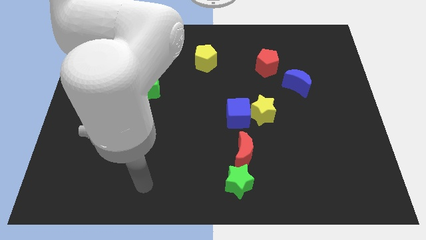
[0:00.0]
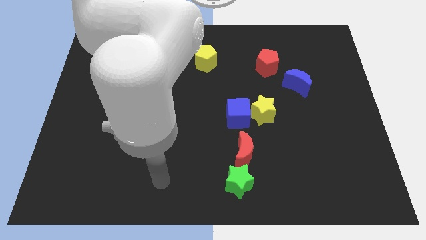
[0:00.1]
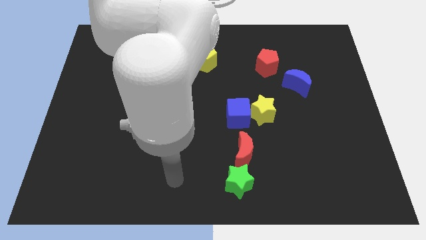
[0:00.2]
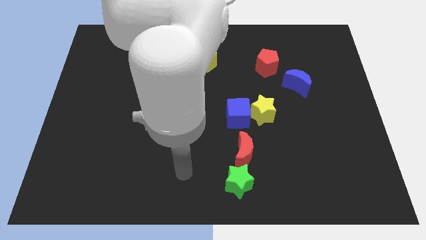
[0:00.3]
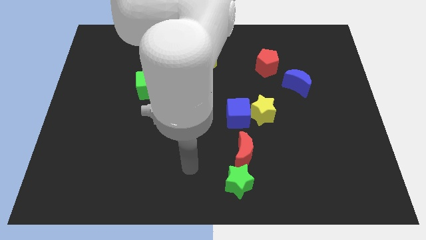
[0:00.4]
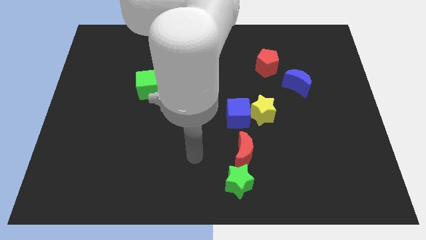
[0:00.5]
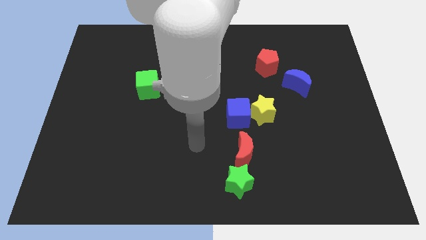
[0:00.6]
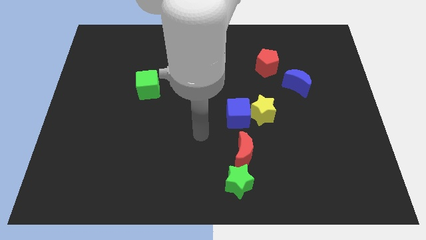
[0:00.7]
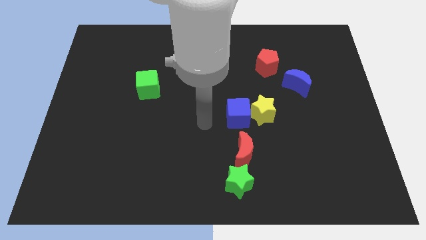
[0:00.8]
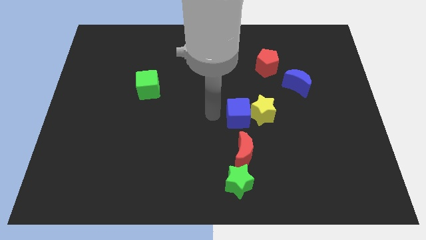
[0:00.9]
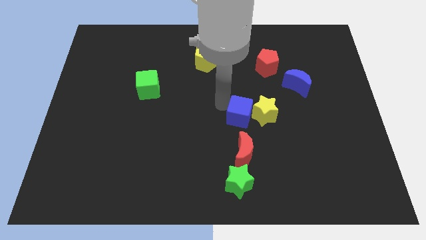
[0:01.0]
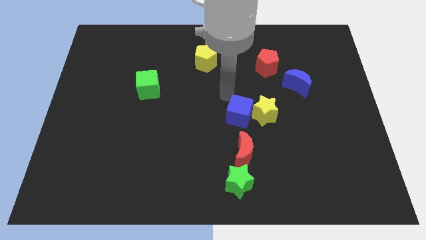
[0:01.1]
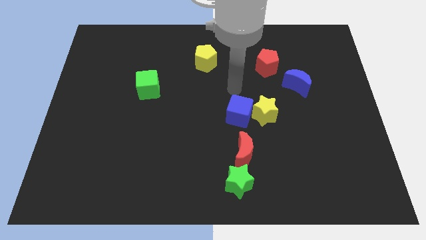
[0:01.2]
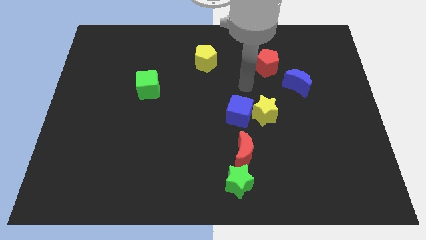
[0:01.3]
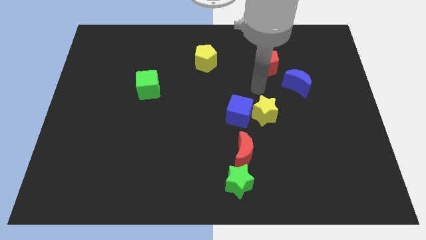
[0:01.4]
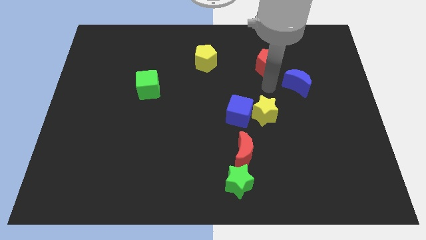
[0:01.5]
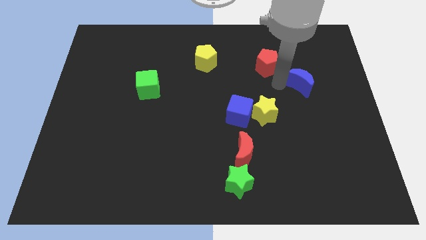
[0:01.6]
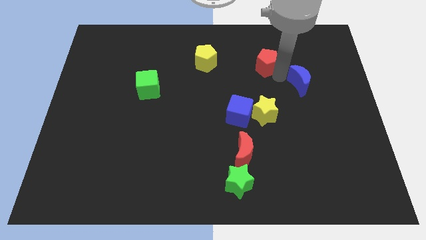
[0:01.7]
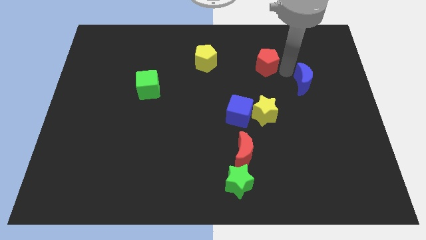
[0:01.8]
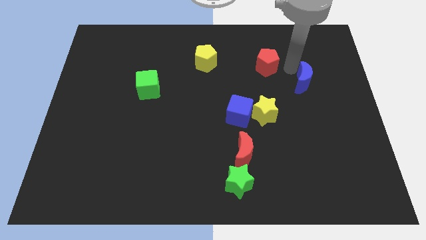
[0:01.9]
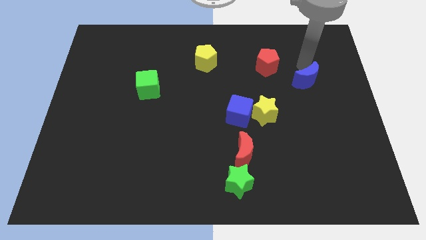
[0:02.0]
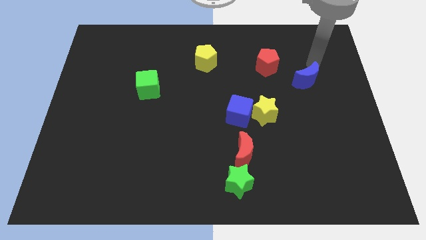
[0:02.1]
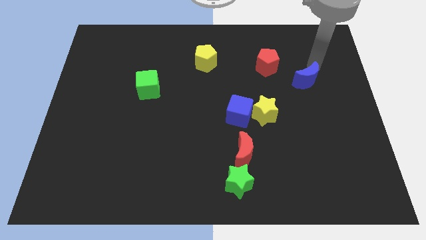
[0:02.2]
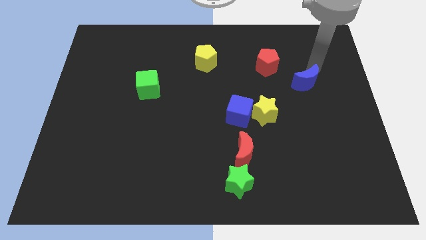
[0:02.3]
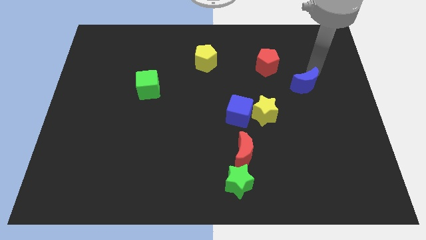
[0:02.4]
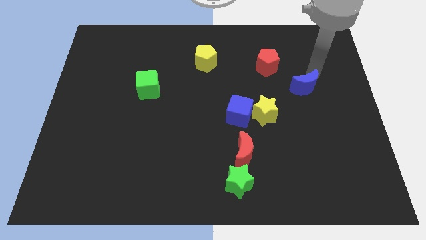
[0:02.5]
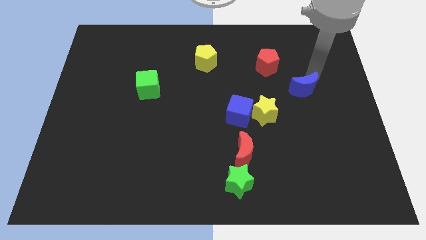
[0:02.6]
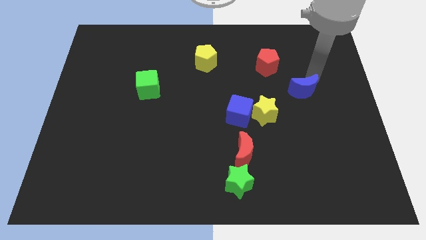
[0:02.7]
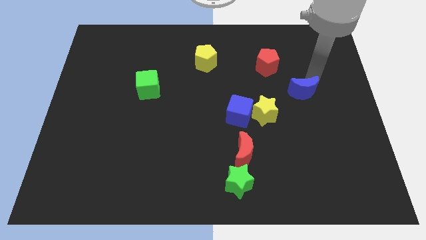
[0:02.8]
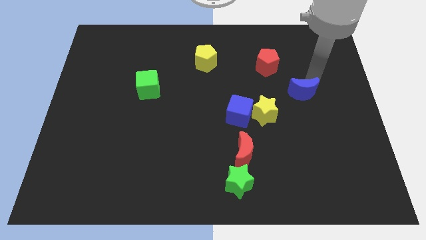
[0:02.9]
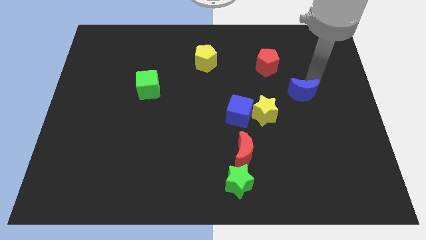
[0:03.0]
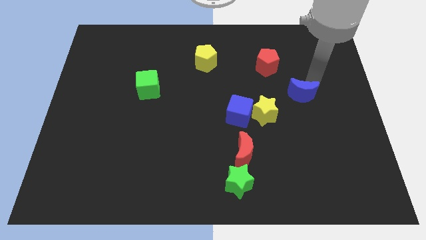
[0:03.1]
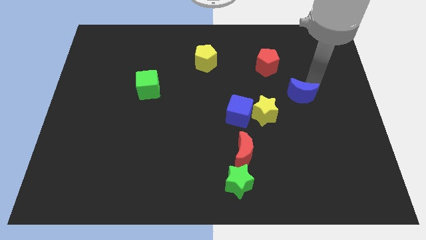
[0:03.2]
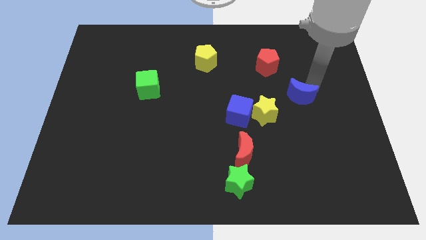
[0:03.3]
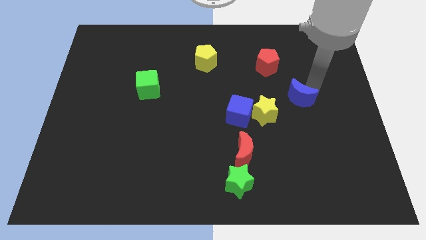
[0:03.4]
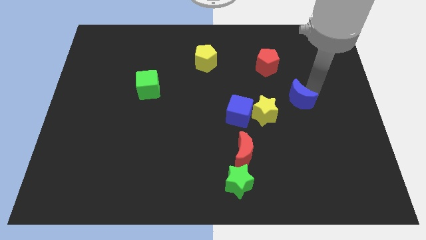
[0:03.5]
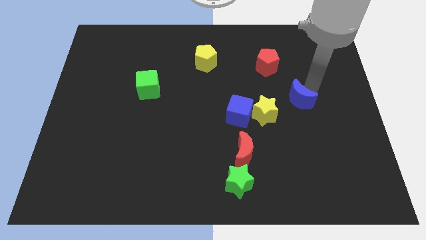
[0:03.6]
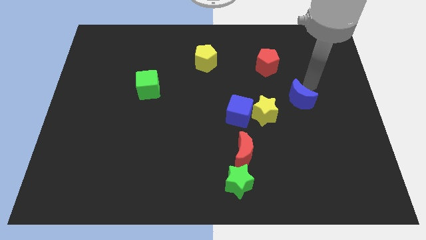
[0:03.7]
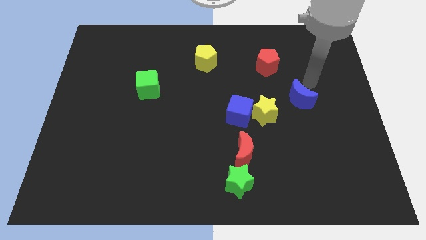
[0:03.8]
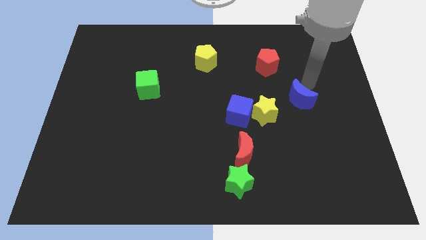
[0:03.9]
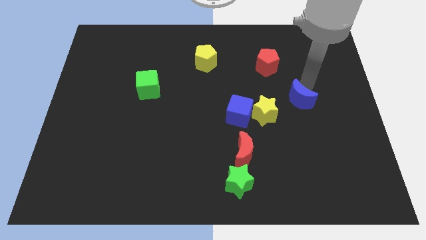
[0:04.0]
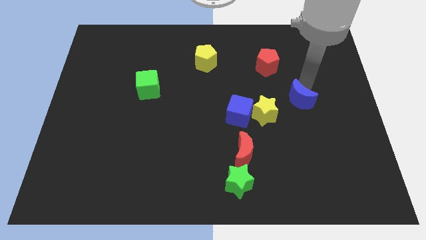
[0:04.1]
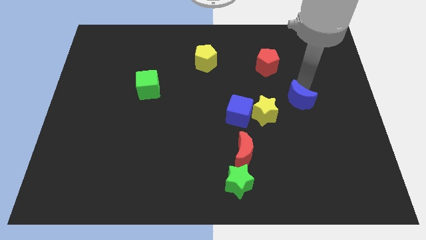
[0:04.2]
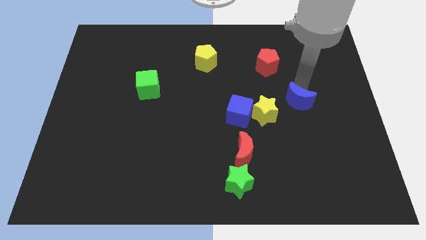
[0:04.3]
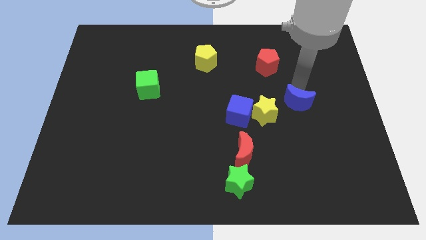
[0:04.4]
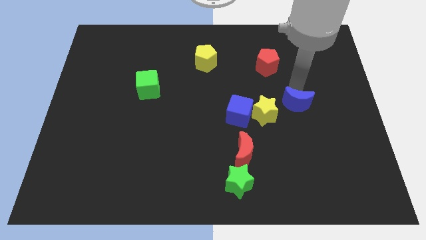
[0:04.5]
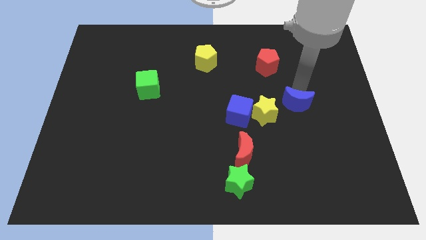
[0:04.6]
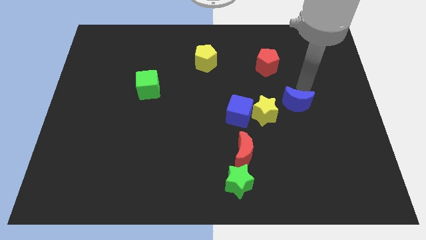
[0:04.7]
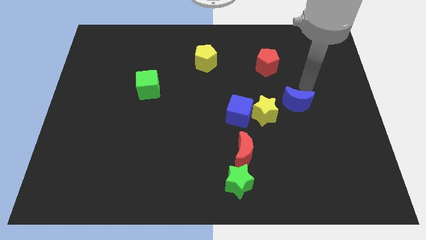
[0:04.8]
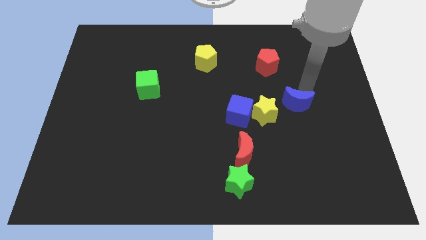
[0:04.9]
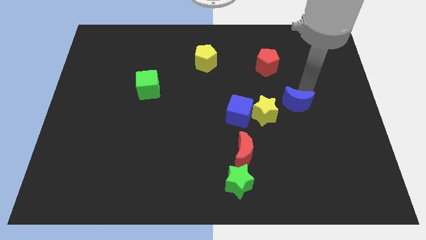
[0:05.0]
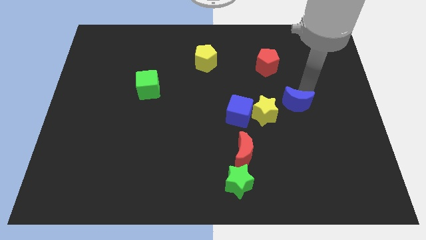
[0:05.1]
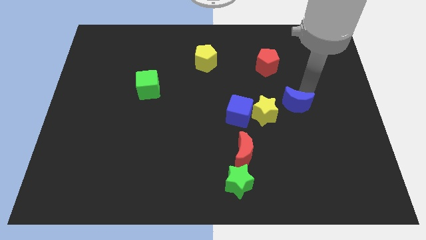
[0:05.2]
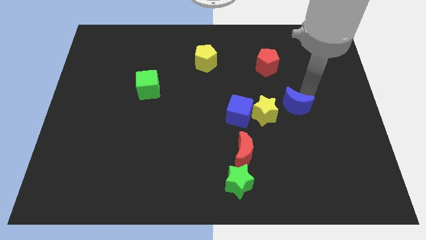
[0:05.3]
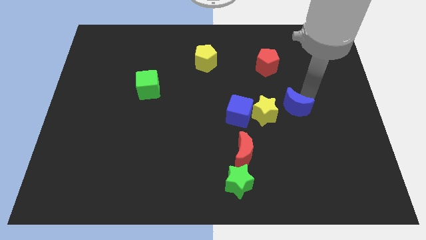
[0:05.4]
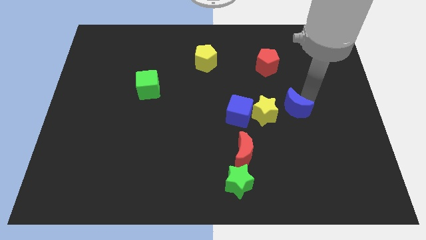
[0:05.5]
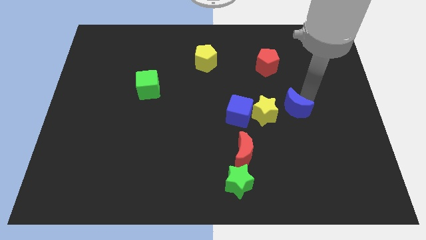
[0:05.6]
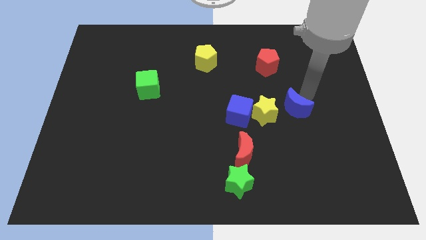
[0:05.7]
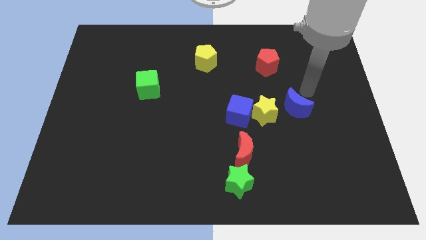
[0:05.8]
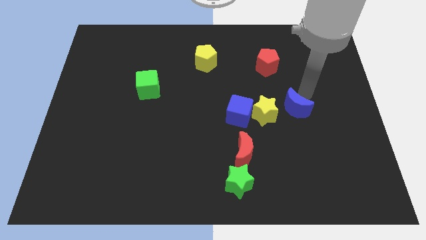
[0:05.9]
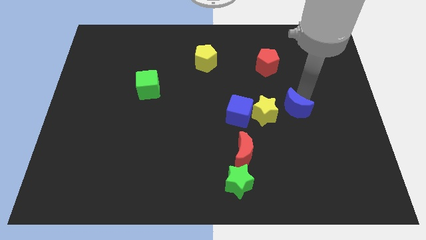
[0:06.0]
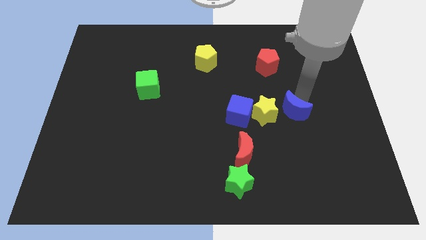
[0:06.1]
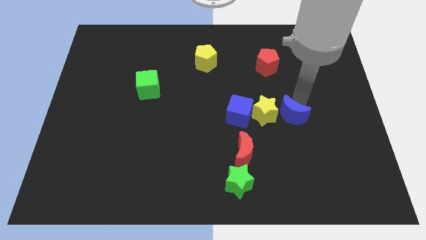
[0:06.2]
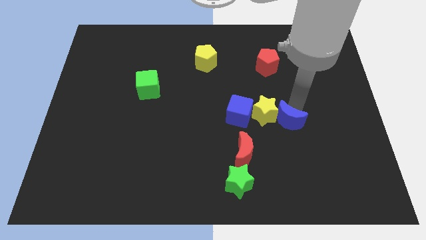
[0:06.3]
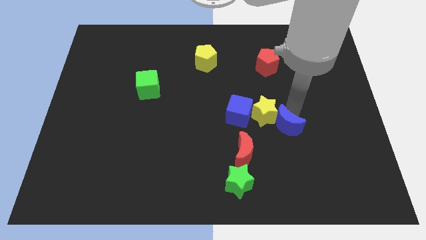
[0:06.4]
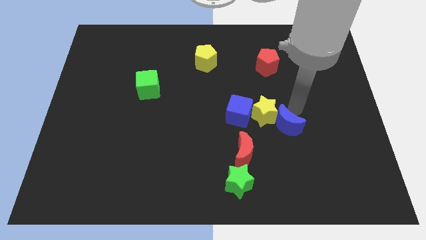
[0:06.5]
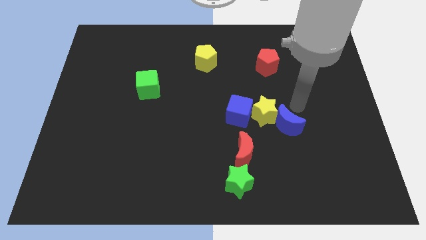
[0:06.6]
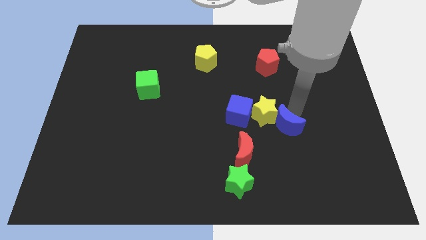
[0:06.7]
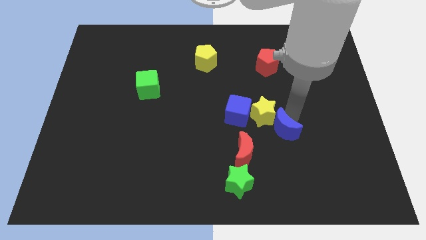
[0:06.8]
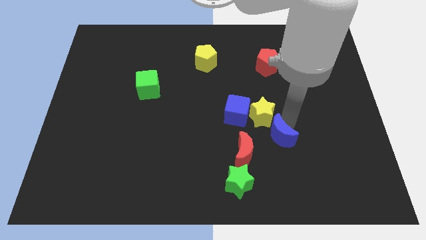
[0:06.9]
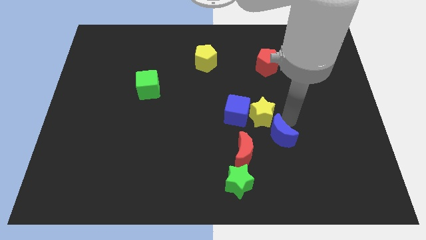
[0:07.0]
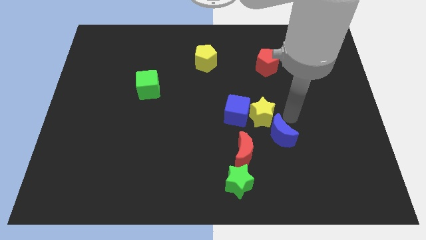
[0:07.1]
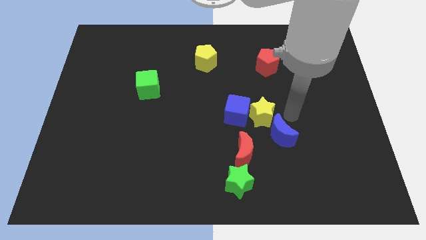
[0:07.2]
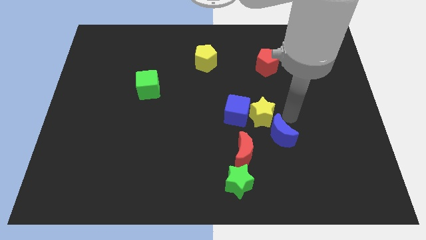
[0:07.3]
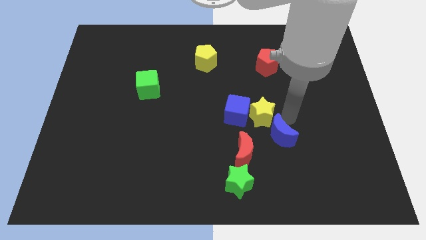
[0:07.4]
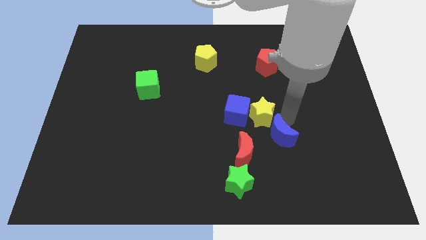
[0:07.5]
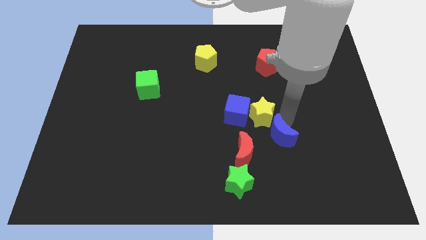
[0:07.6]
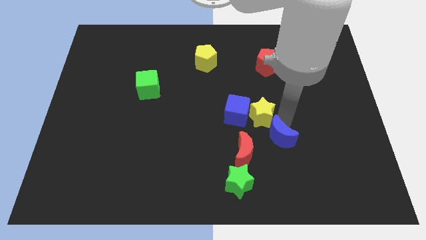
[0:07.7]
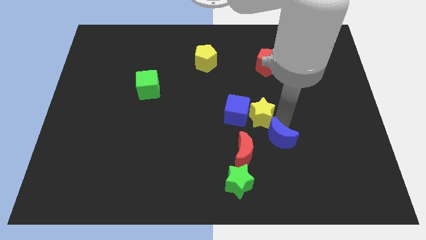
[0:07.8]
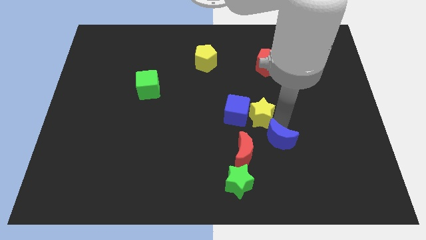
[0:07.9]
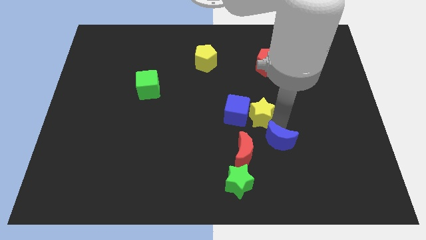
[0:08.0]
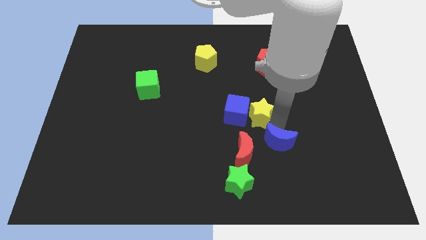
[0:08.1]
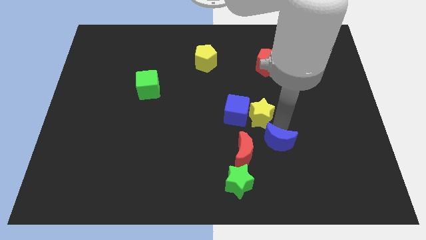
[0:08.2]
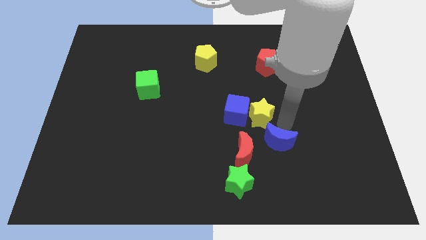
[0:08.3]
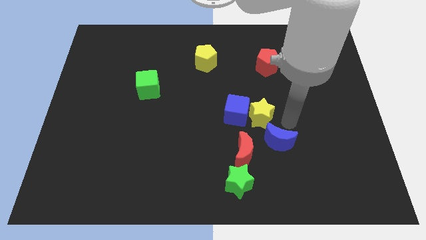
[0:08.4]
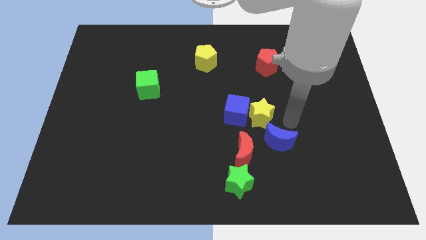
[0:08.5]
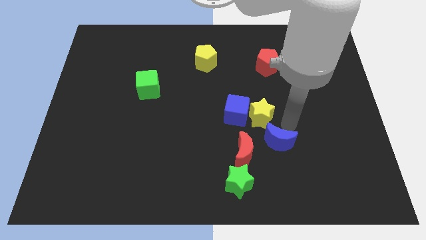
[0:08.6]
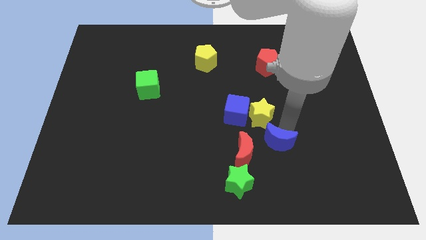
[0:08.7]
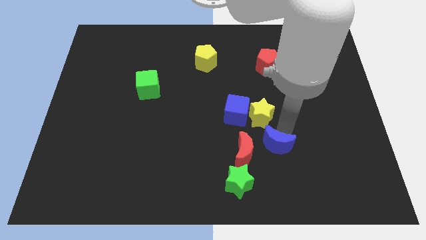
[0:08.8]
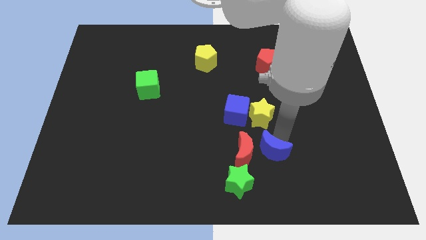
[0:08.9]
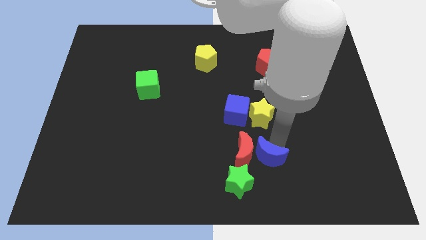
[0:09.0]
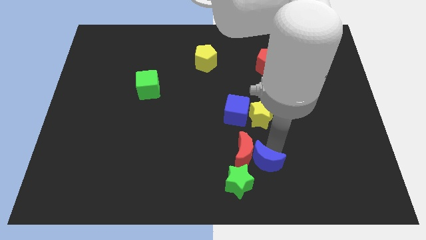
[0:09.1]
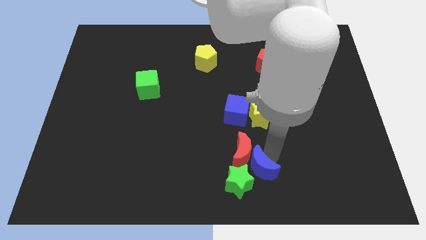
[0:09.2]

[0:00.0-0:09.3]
slide the blue moon to the green star
